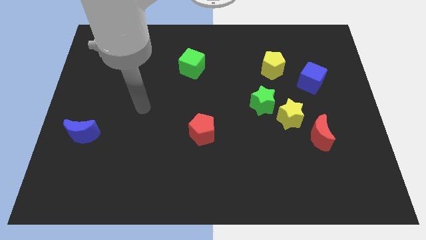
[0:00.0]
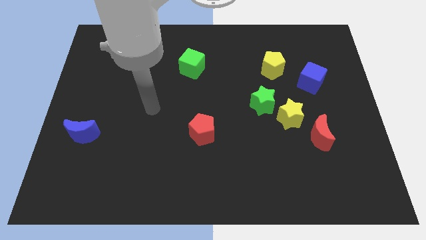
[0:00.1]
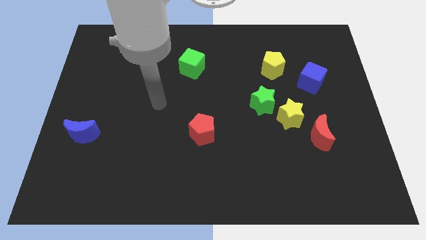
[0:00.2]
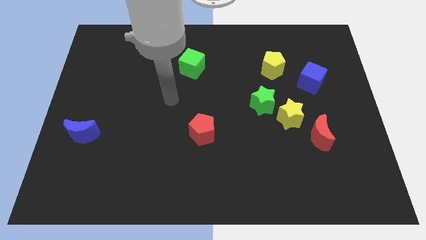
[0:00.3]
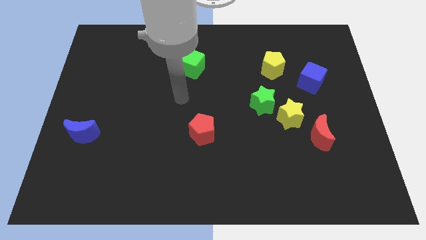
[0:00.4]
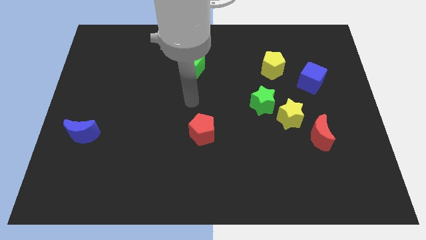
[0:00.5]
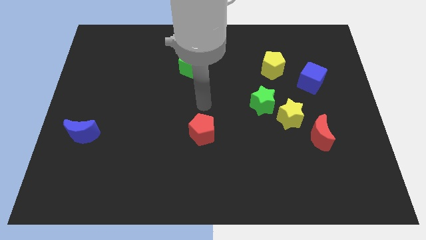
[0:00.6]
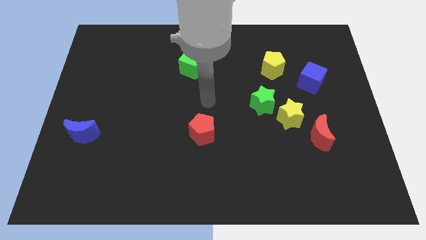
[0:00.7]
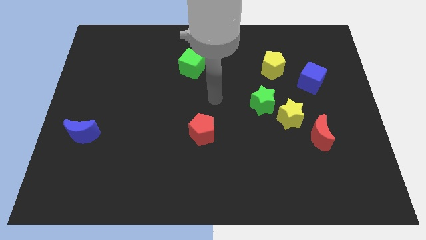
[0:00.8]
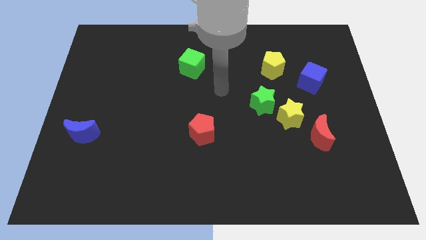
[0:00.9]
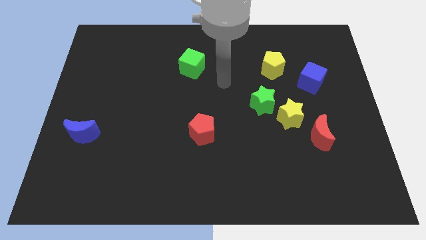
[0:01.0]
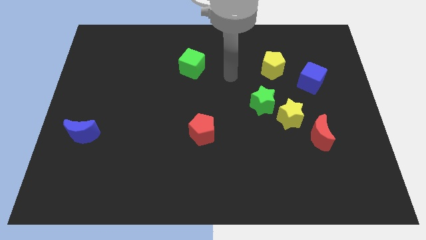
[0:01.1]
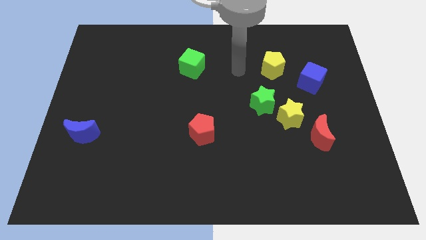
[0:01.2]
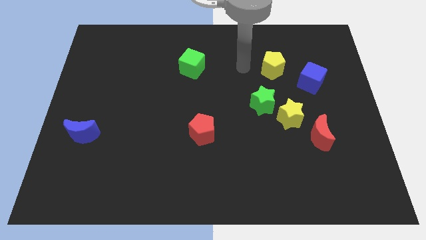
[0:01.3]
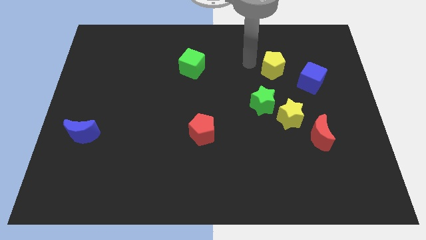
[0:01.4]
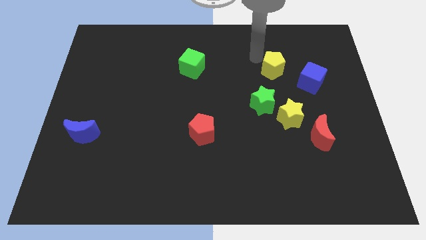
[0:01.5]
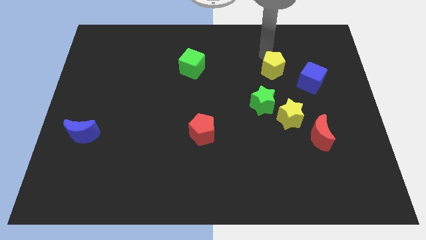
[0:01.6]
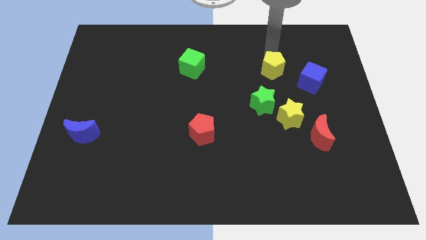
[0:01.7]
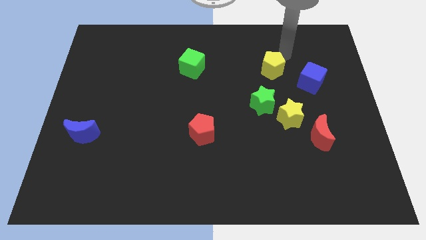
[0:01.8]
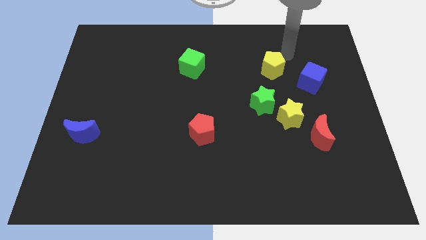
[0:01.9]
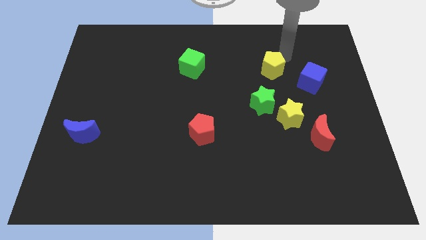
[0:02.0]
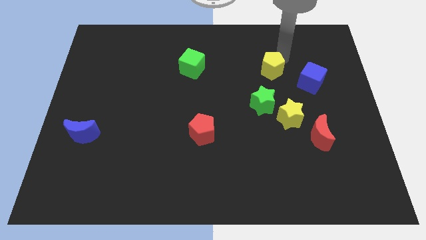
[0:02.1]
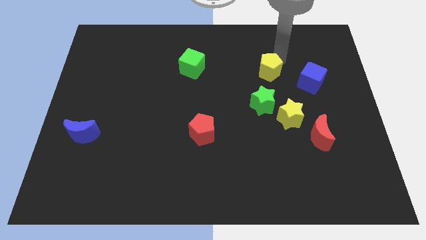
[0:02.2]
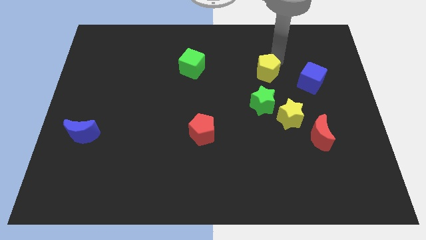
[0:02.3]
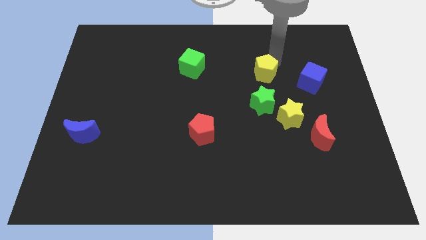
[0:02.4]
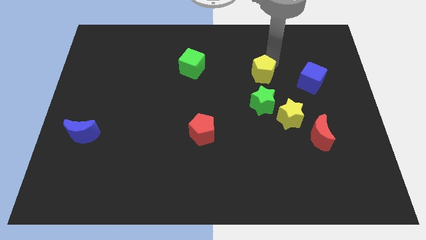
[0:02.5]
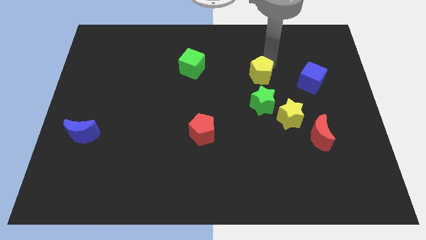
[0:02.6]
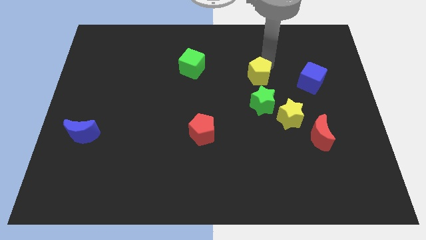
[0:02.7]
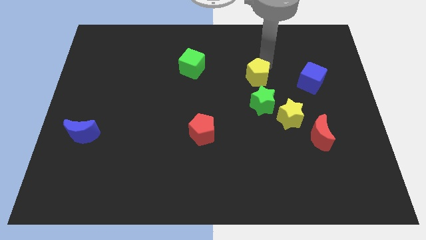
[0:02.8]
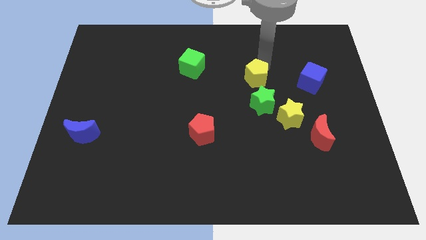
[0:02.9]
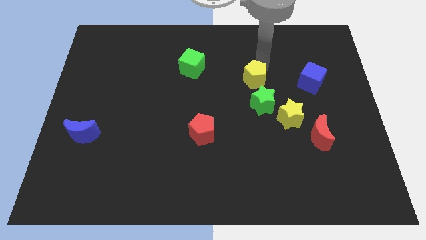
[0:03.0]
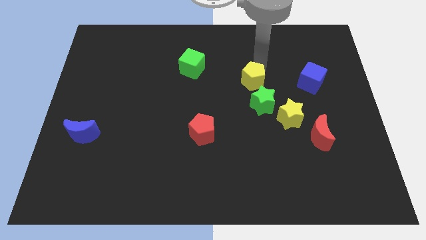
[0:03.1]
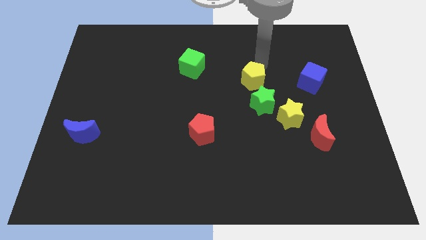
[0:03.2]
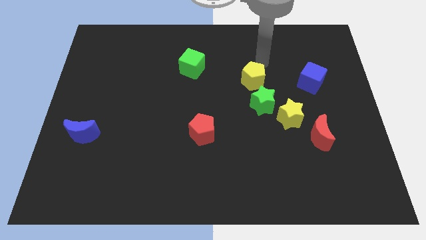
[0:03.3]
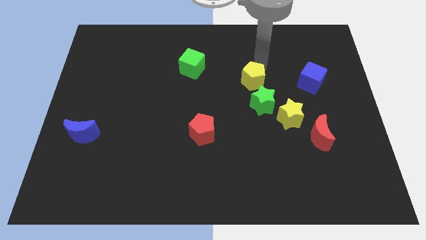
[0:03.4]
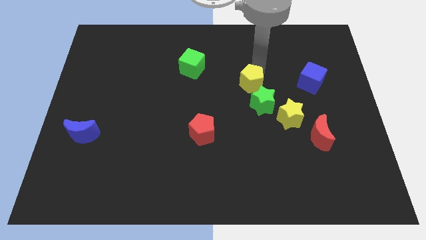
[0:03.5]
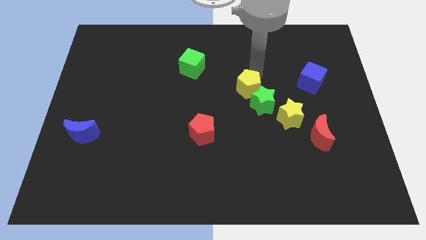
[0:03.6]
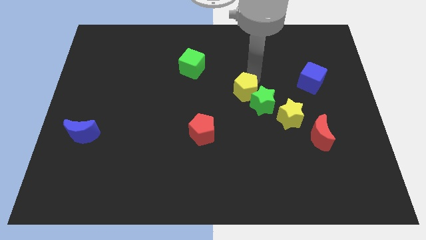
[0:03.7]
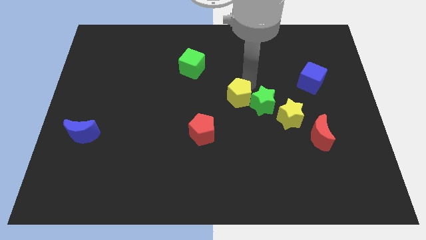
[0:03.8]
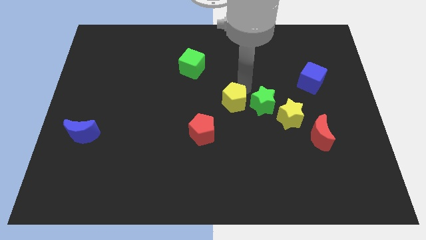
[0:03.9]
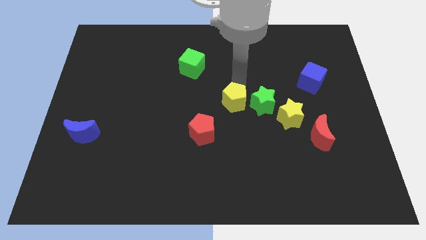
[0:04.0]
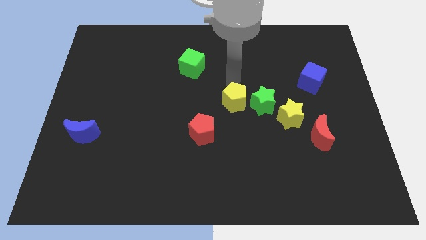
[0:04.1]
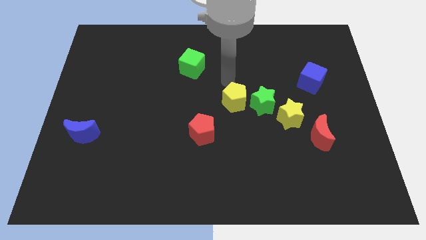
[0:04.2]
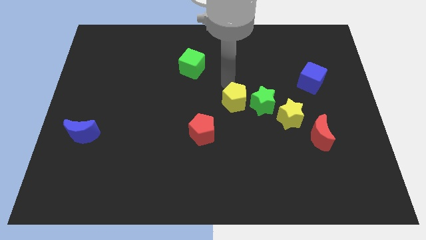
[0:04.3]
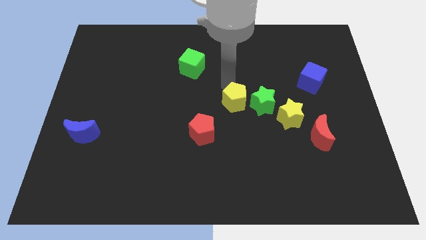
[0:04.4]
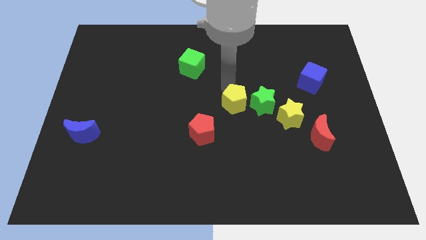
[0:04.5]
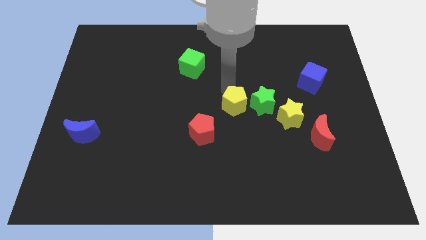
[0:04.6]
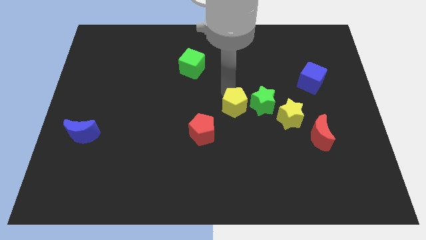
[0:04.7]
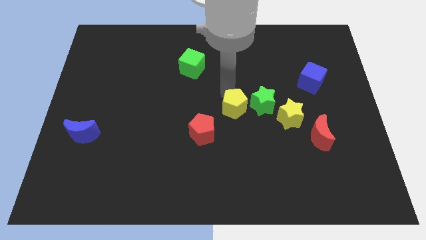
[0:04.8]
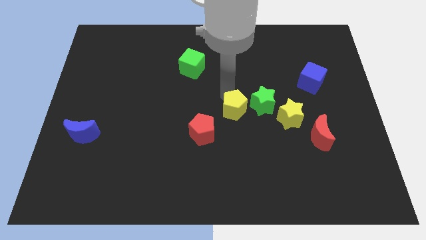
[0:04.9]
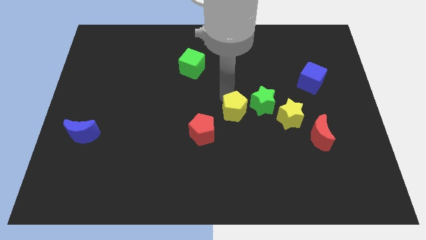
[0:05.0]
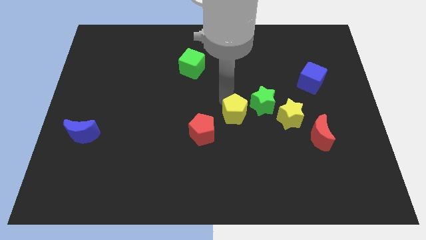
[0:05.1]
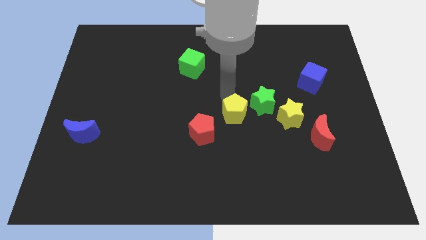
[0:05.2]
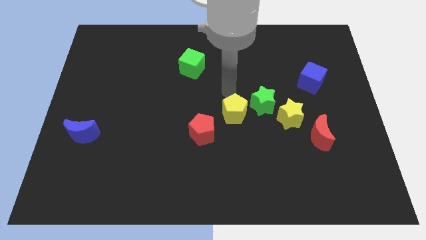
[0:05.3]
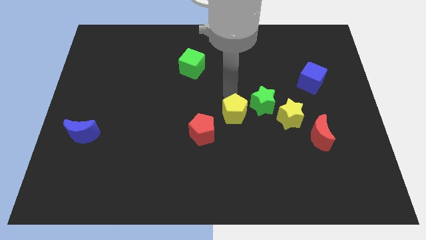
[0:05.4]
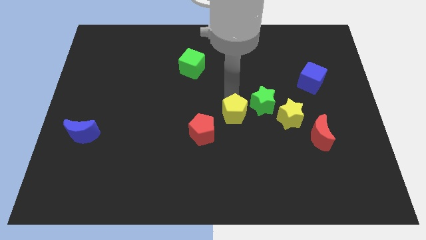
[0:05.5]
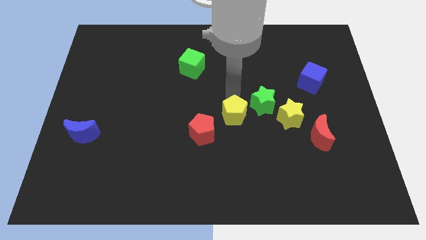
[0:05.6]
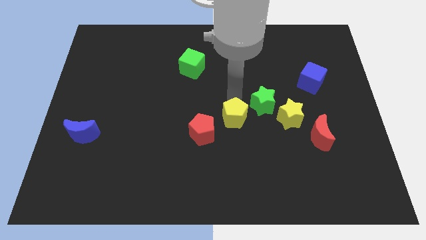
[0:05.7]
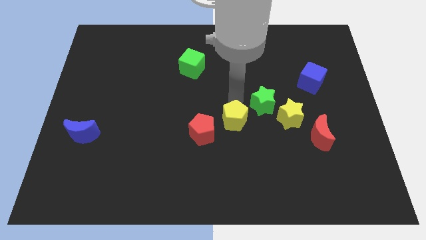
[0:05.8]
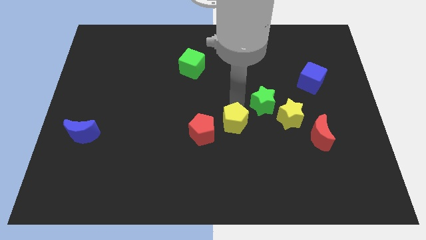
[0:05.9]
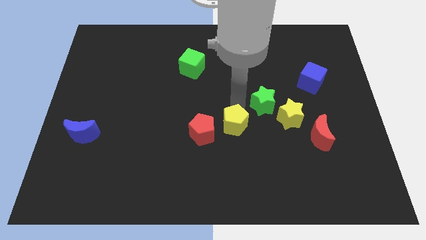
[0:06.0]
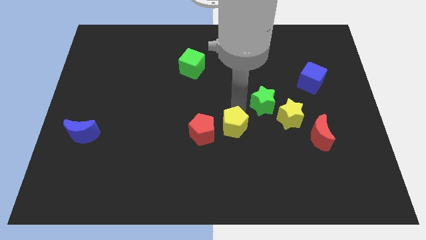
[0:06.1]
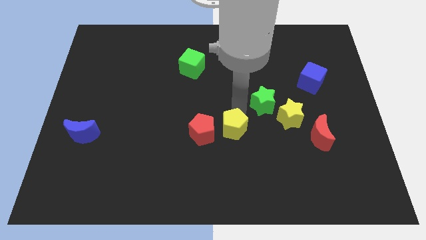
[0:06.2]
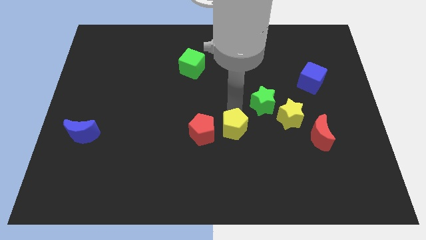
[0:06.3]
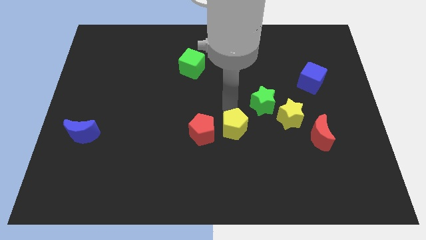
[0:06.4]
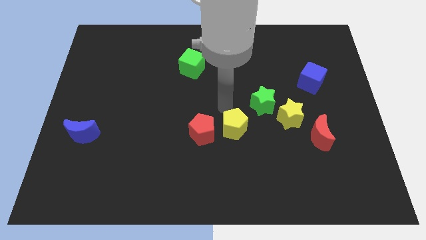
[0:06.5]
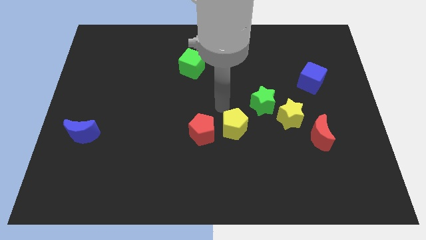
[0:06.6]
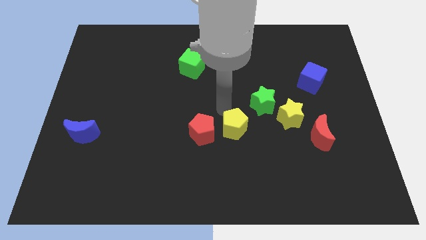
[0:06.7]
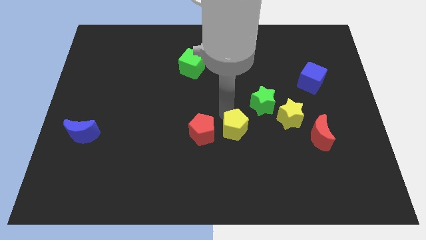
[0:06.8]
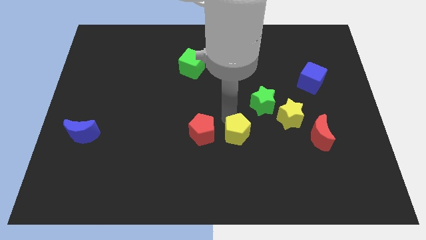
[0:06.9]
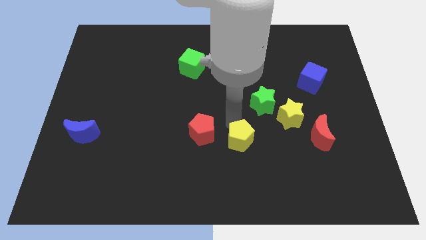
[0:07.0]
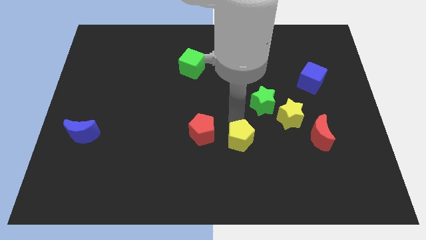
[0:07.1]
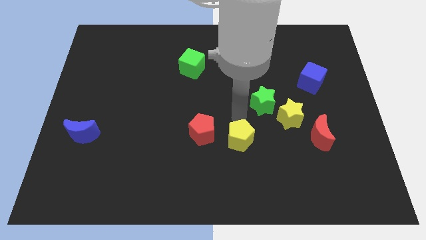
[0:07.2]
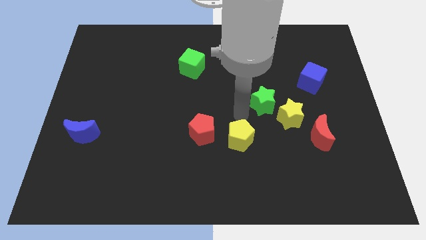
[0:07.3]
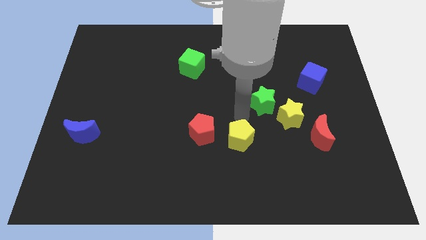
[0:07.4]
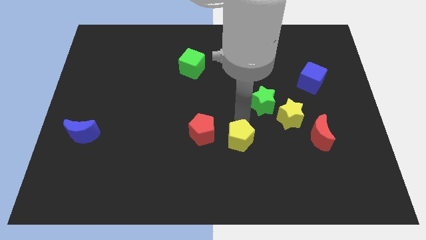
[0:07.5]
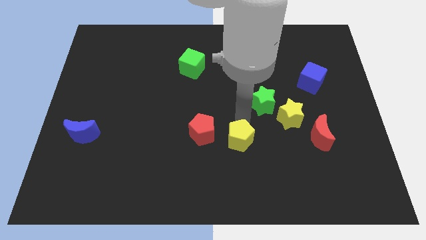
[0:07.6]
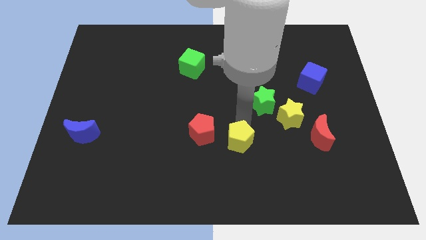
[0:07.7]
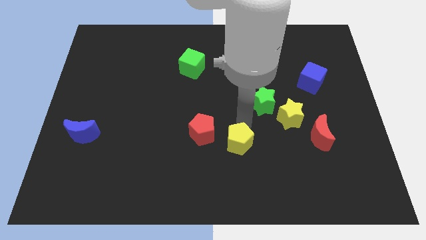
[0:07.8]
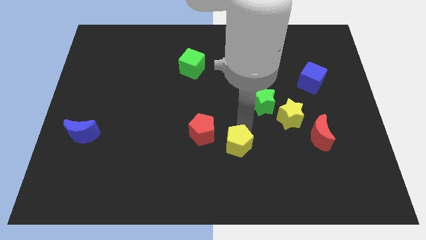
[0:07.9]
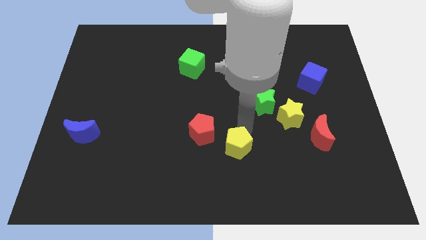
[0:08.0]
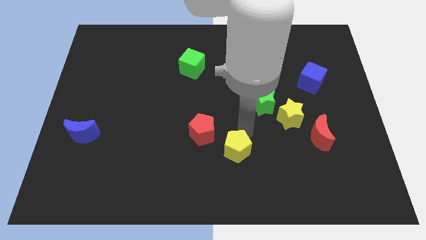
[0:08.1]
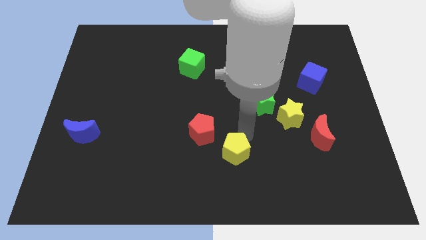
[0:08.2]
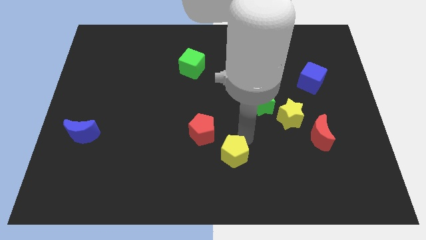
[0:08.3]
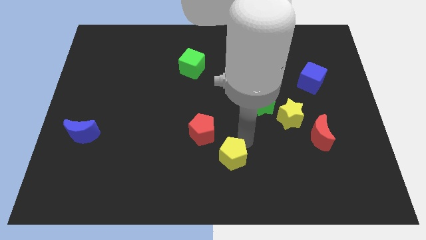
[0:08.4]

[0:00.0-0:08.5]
slide the yellow pentagon to the bottom side
